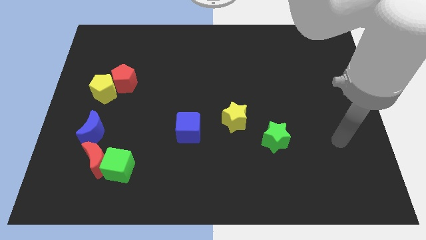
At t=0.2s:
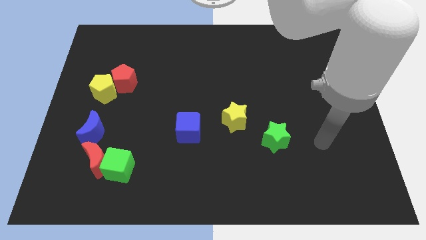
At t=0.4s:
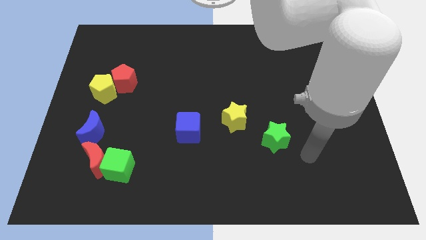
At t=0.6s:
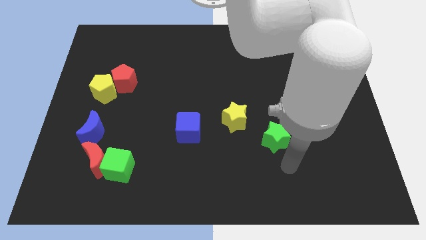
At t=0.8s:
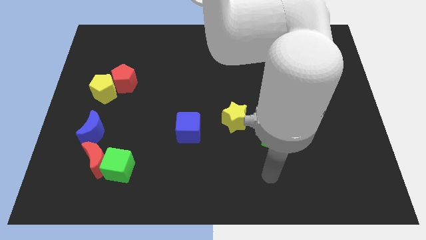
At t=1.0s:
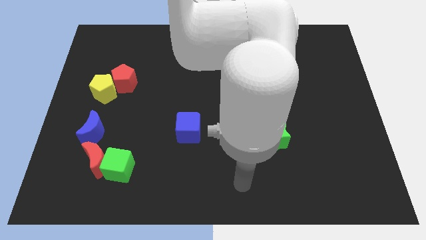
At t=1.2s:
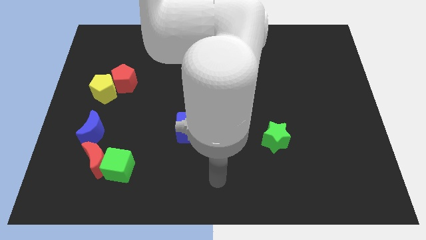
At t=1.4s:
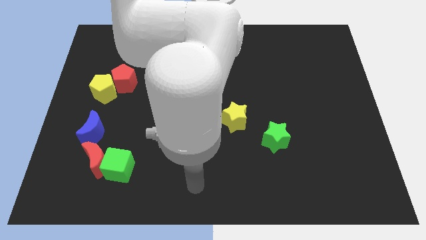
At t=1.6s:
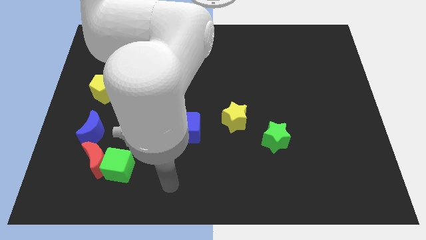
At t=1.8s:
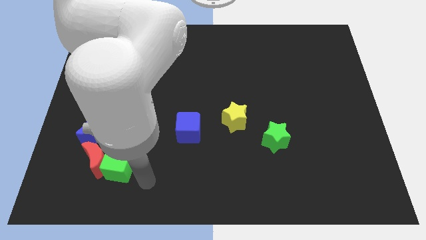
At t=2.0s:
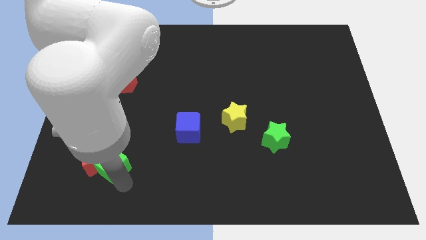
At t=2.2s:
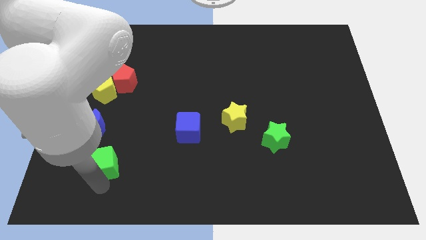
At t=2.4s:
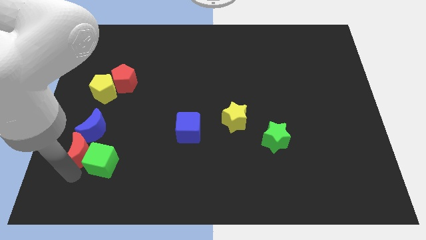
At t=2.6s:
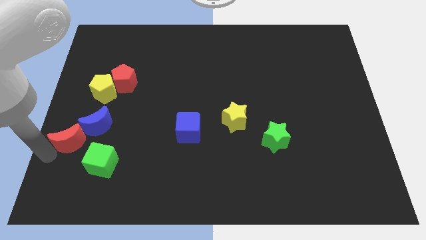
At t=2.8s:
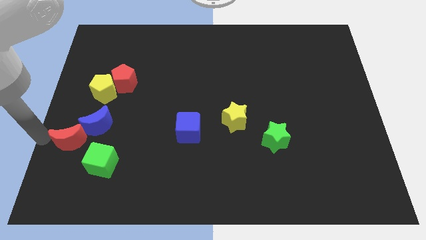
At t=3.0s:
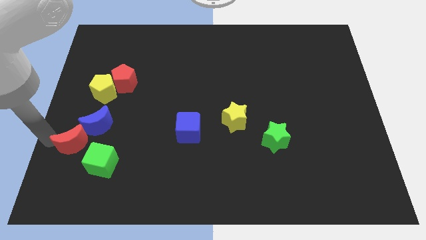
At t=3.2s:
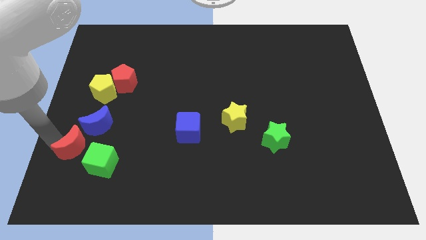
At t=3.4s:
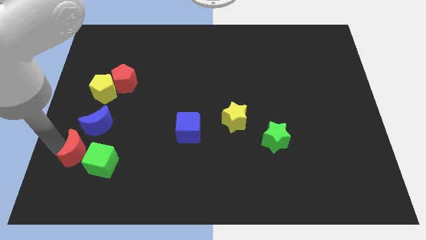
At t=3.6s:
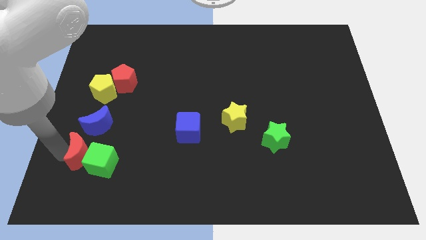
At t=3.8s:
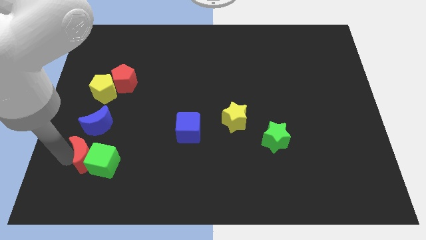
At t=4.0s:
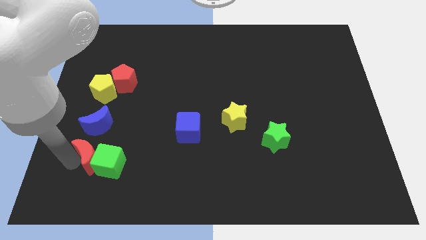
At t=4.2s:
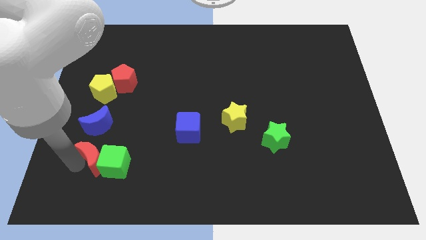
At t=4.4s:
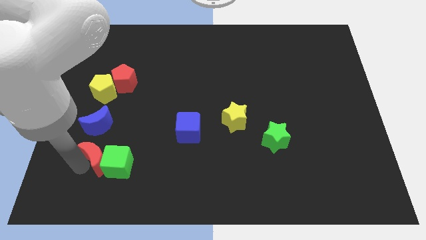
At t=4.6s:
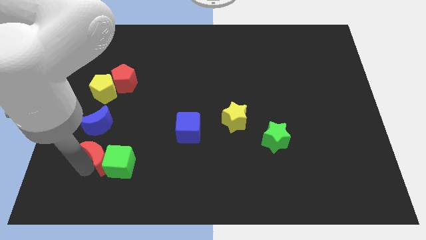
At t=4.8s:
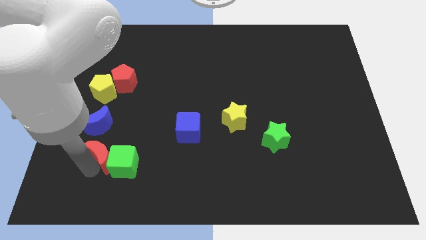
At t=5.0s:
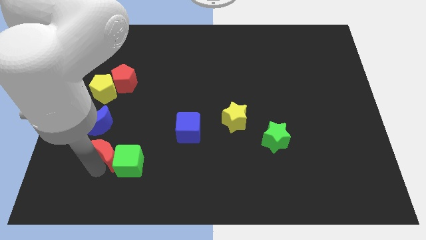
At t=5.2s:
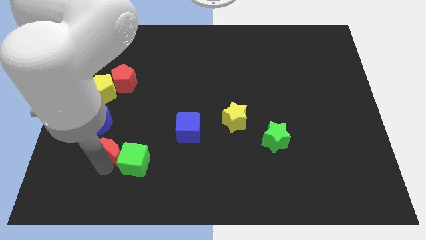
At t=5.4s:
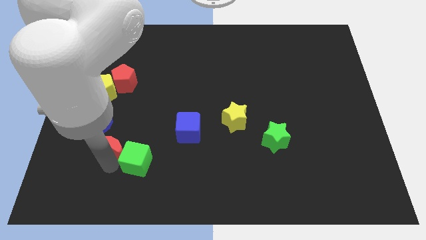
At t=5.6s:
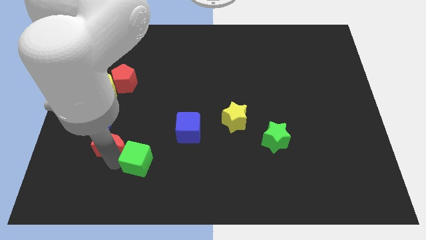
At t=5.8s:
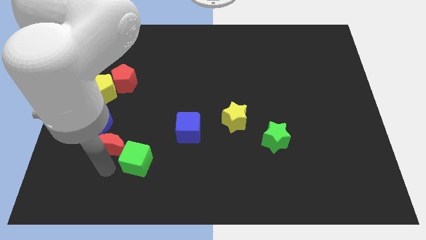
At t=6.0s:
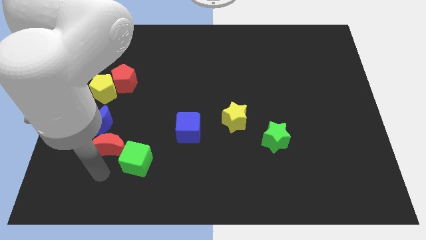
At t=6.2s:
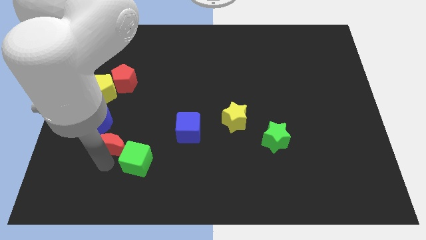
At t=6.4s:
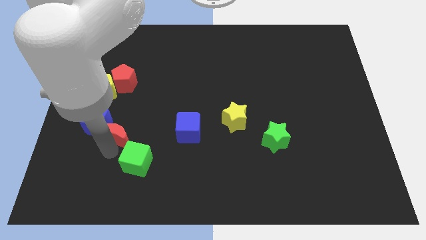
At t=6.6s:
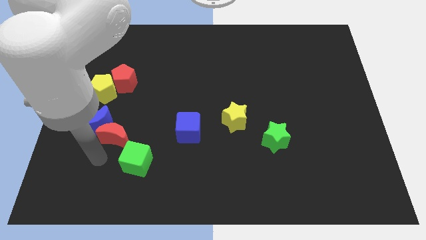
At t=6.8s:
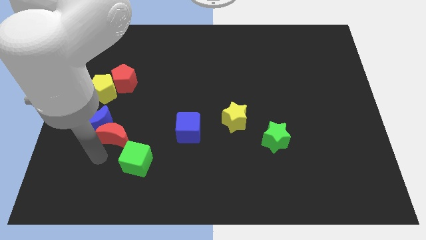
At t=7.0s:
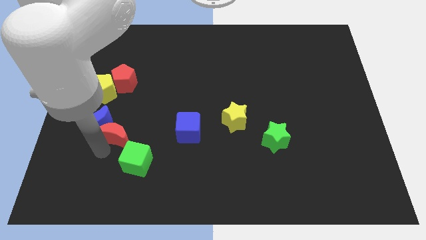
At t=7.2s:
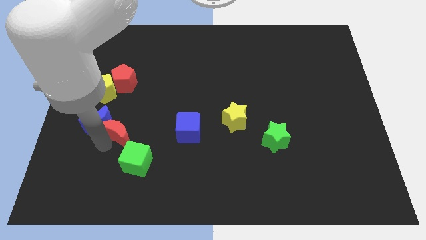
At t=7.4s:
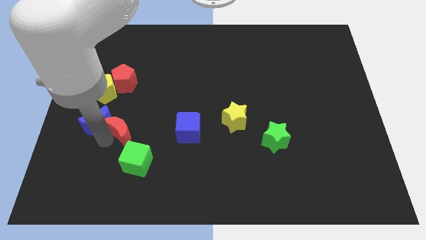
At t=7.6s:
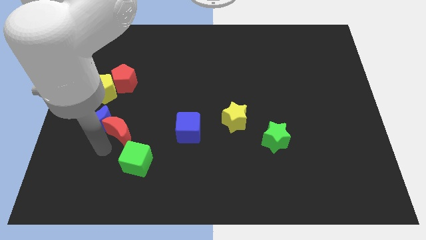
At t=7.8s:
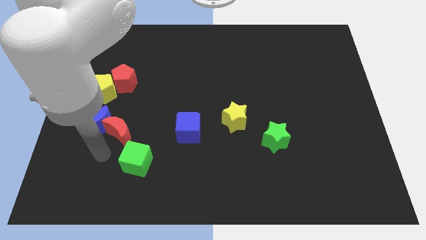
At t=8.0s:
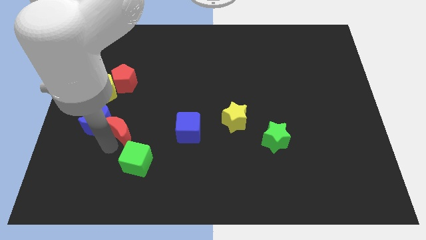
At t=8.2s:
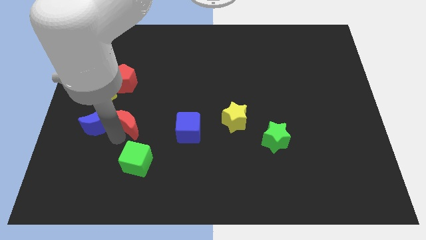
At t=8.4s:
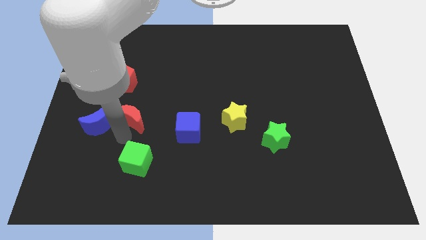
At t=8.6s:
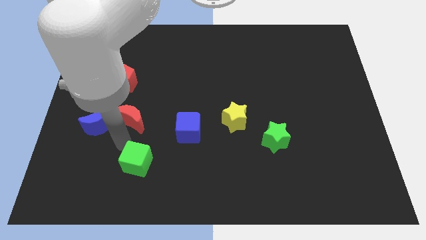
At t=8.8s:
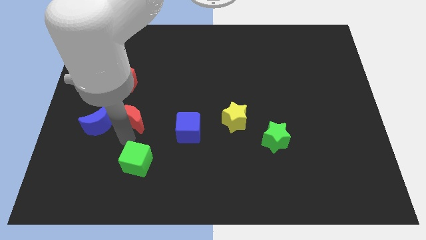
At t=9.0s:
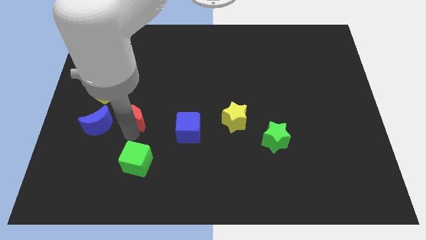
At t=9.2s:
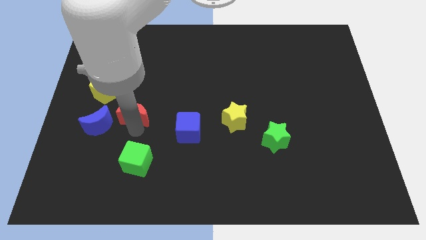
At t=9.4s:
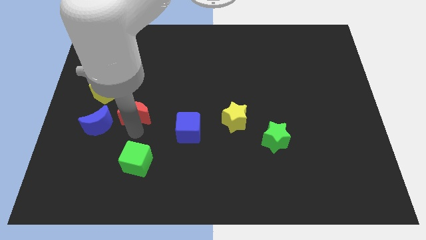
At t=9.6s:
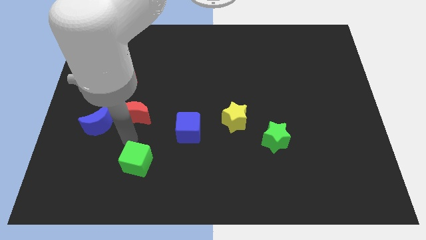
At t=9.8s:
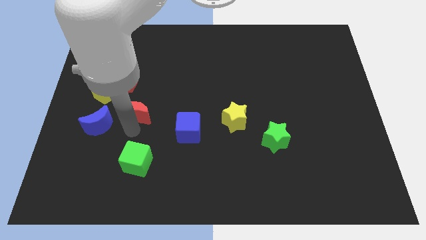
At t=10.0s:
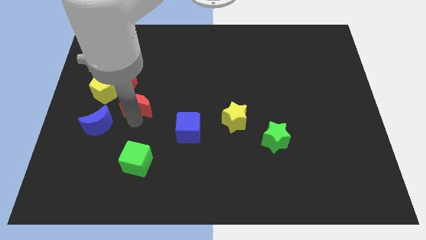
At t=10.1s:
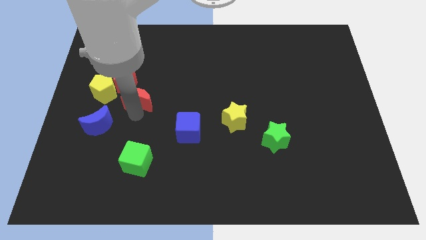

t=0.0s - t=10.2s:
move the red moon just right of the yellow pentagon

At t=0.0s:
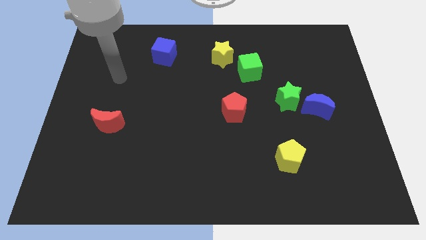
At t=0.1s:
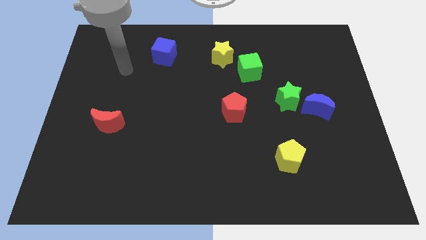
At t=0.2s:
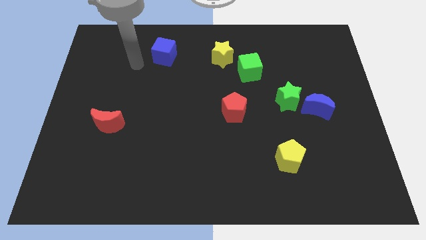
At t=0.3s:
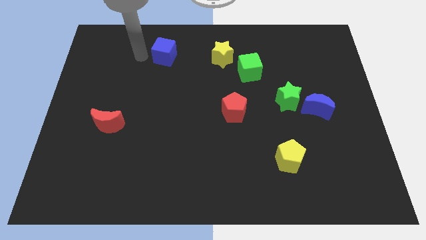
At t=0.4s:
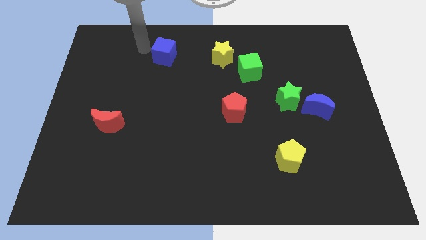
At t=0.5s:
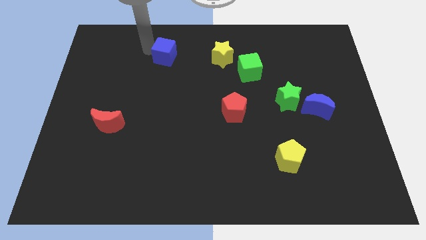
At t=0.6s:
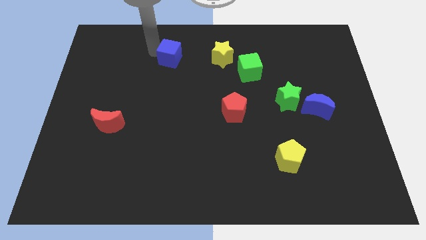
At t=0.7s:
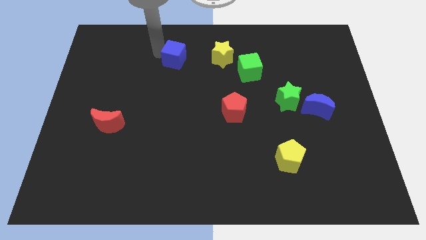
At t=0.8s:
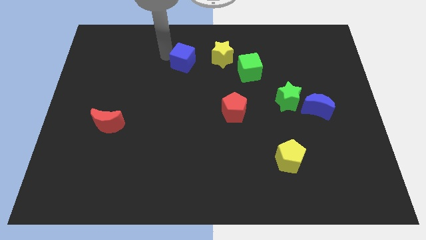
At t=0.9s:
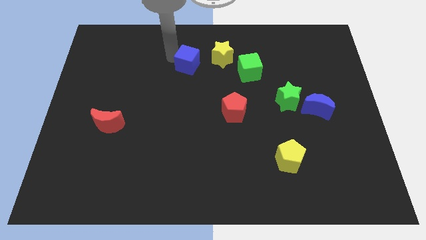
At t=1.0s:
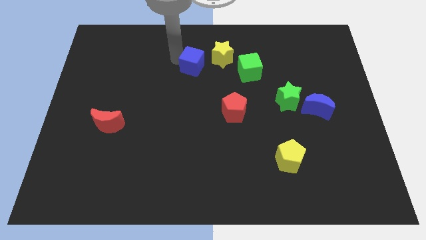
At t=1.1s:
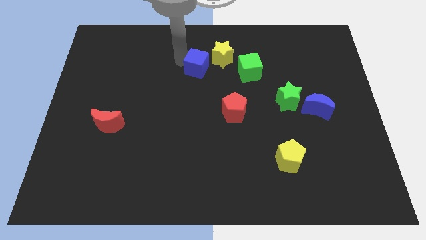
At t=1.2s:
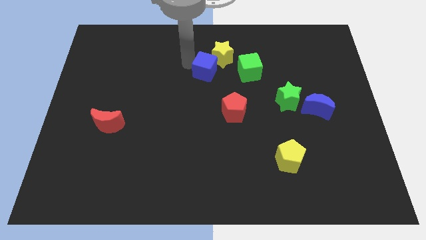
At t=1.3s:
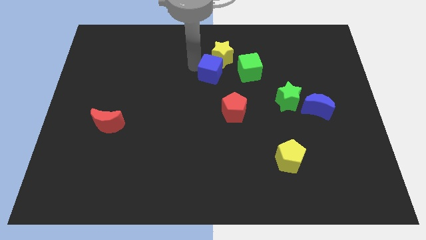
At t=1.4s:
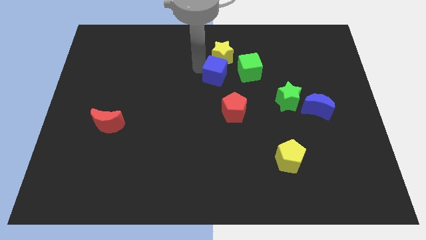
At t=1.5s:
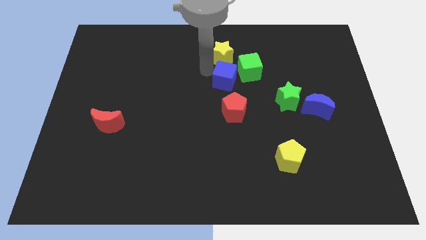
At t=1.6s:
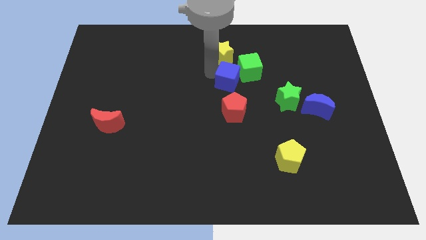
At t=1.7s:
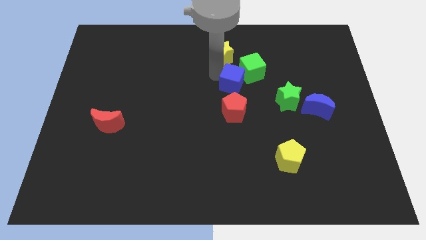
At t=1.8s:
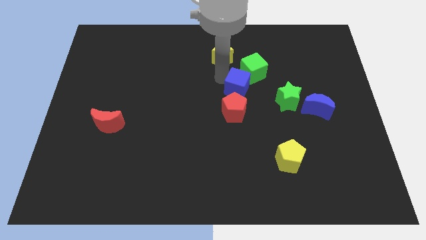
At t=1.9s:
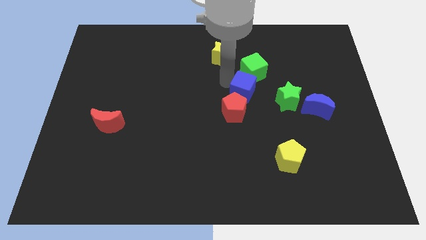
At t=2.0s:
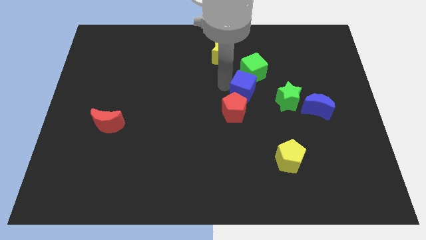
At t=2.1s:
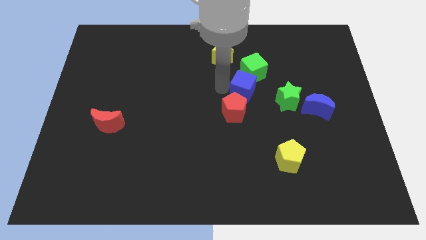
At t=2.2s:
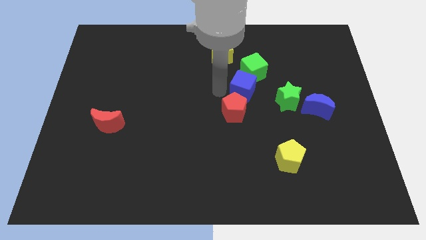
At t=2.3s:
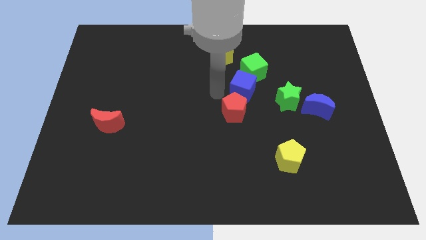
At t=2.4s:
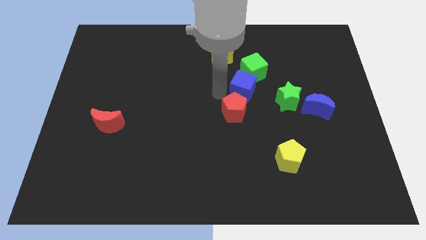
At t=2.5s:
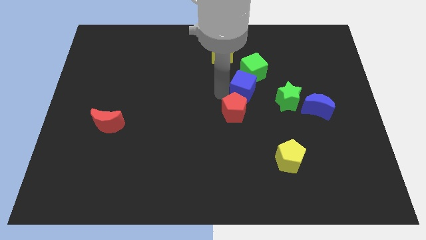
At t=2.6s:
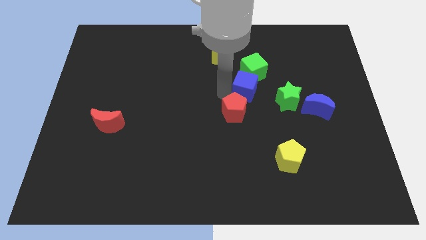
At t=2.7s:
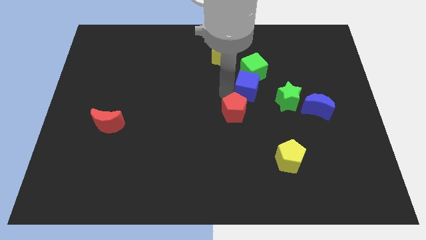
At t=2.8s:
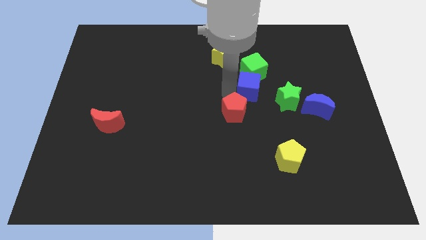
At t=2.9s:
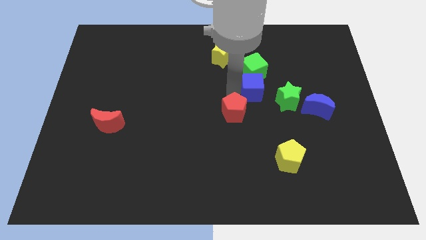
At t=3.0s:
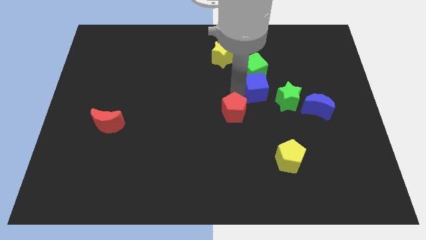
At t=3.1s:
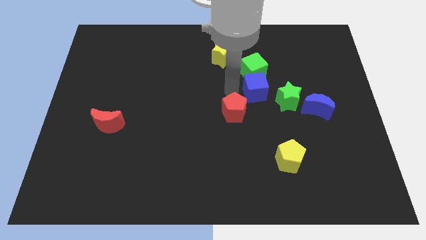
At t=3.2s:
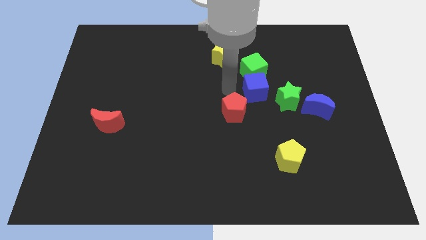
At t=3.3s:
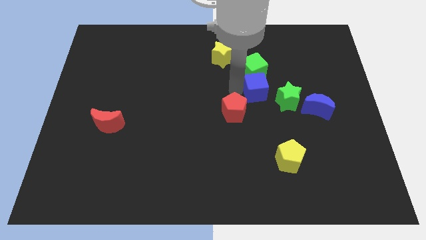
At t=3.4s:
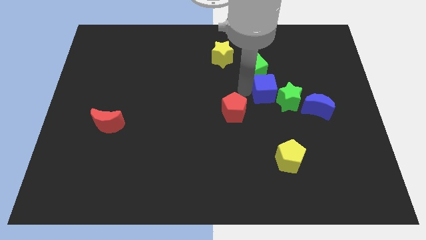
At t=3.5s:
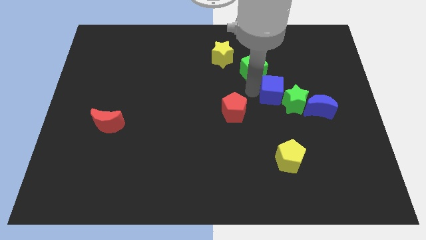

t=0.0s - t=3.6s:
slide the blue cube to the top left side of the blue moon
